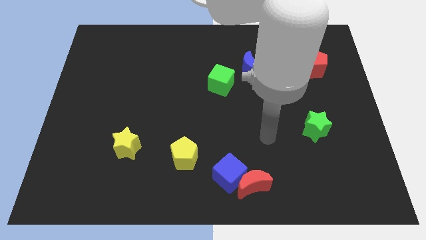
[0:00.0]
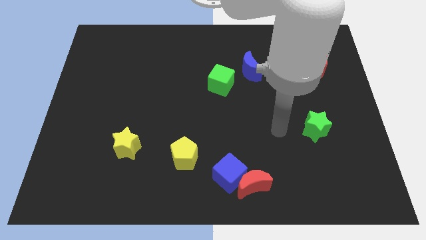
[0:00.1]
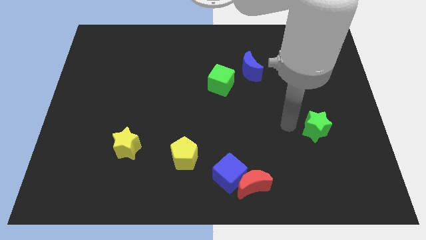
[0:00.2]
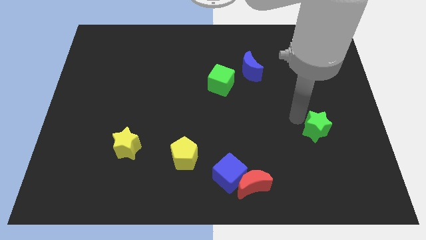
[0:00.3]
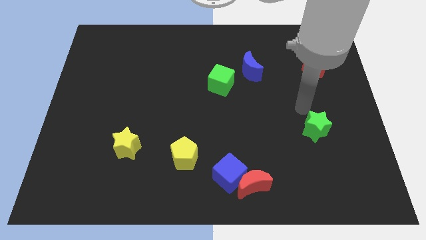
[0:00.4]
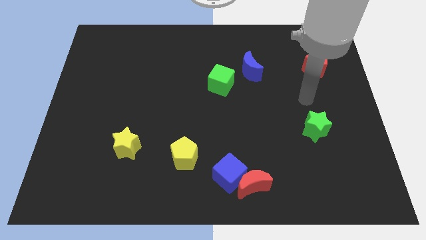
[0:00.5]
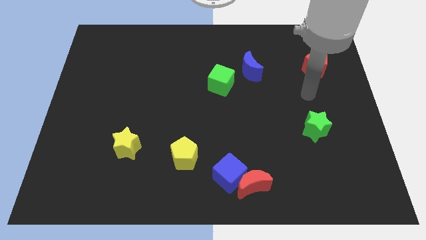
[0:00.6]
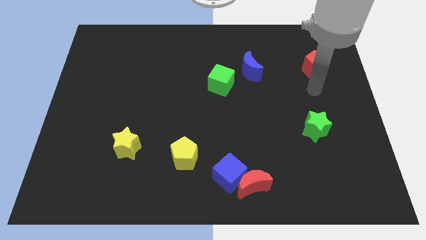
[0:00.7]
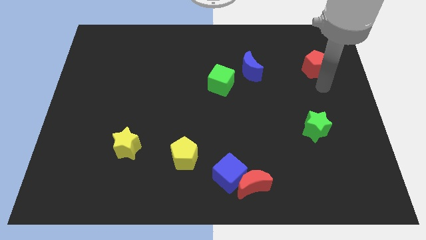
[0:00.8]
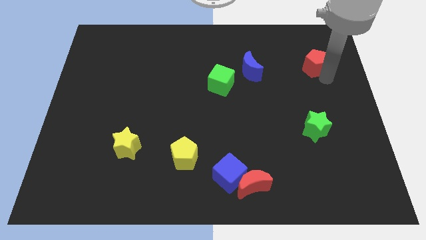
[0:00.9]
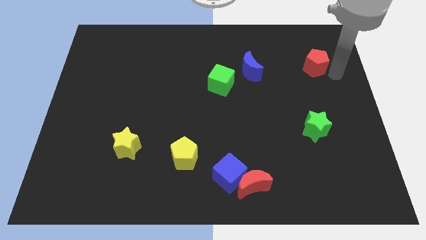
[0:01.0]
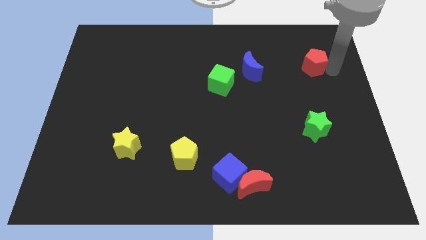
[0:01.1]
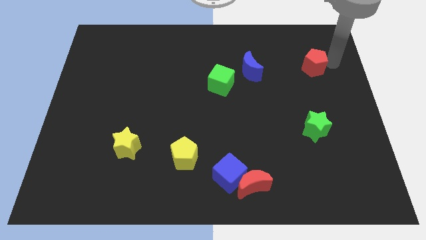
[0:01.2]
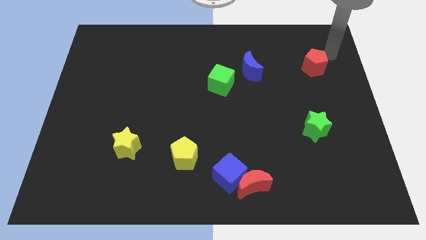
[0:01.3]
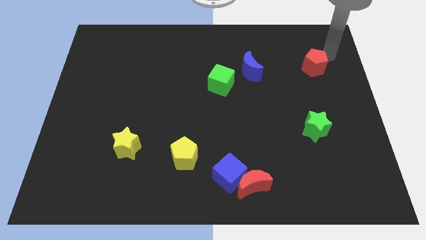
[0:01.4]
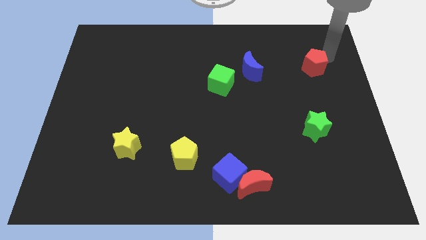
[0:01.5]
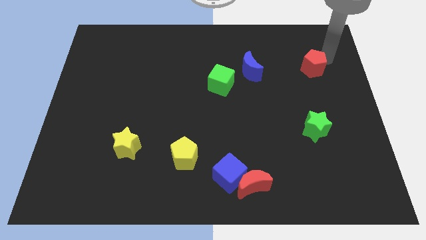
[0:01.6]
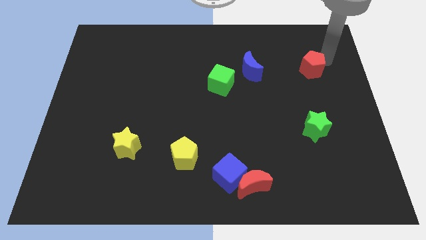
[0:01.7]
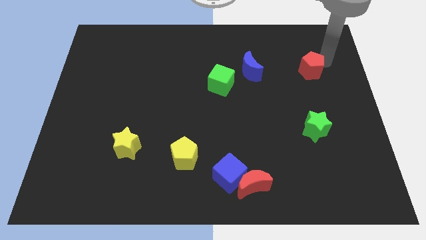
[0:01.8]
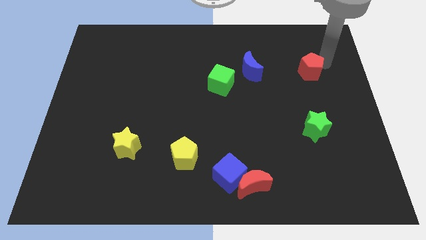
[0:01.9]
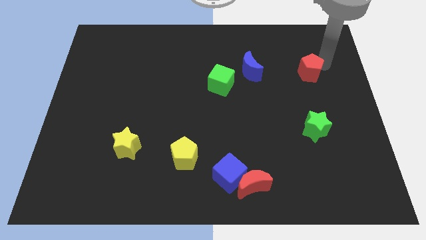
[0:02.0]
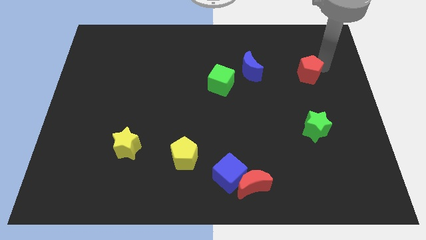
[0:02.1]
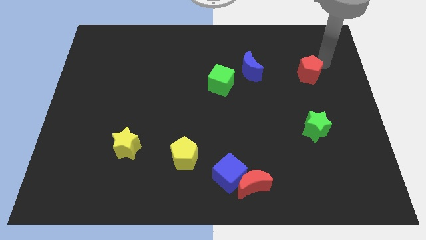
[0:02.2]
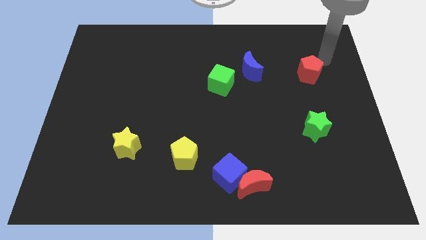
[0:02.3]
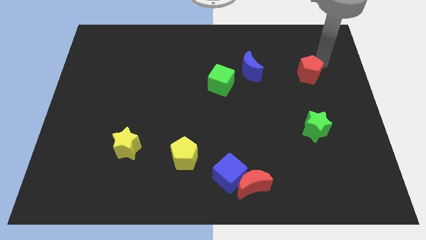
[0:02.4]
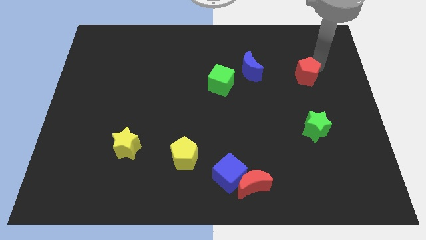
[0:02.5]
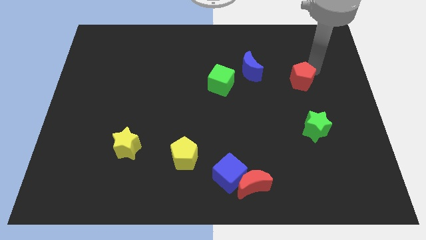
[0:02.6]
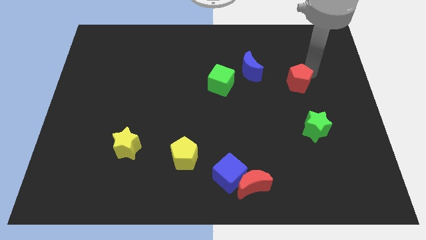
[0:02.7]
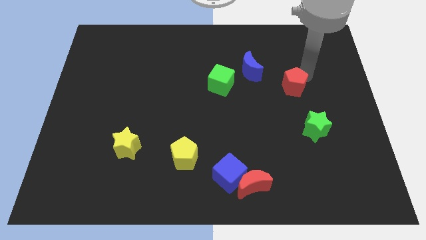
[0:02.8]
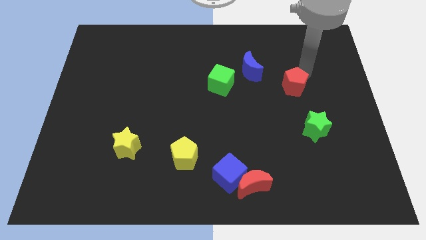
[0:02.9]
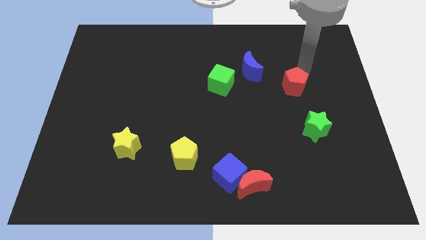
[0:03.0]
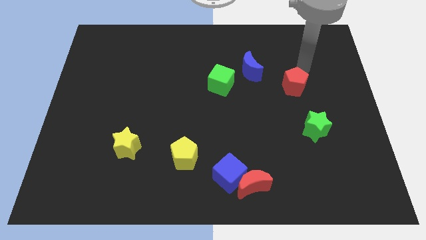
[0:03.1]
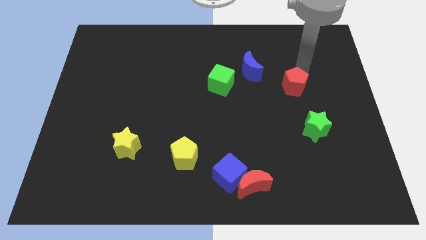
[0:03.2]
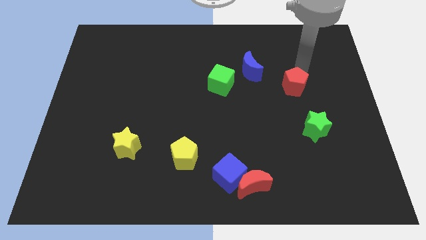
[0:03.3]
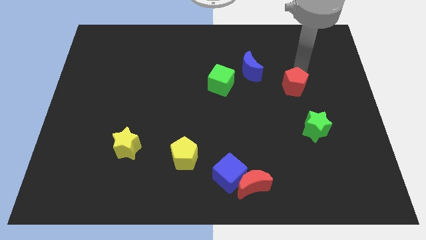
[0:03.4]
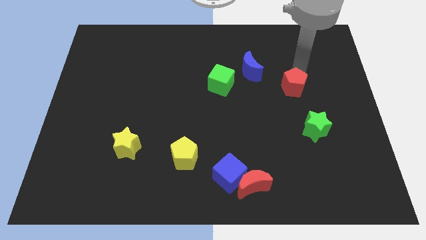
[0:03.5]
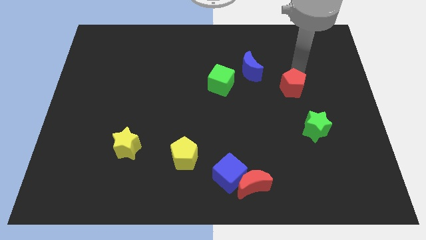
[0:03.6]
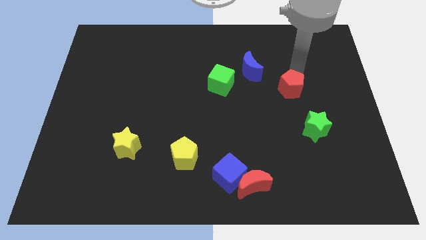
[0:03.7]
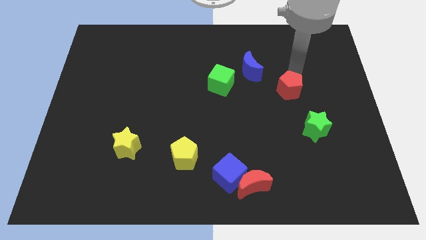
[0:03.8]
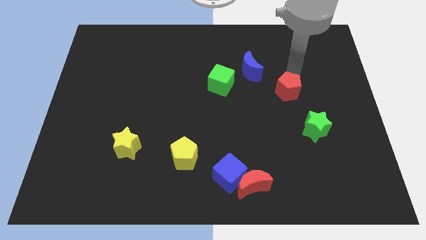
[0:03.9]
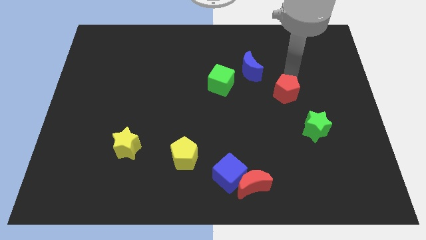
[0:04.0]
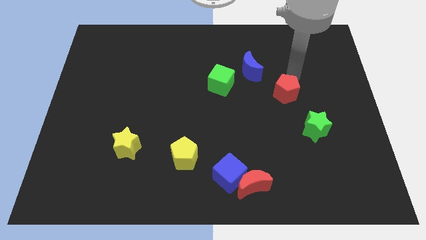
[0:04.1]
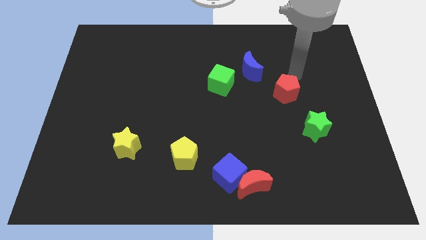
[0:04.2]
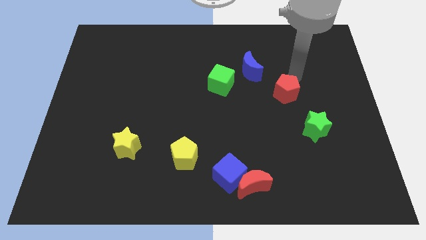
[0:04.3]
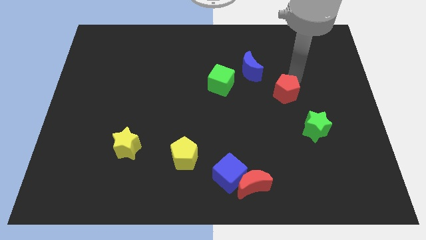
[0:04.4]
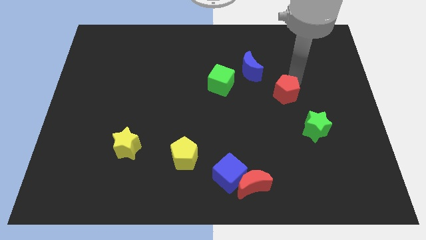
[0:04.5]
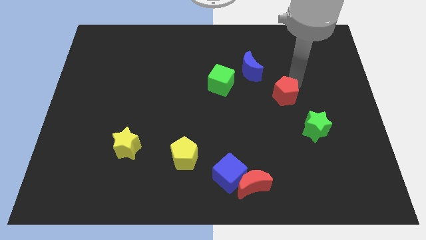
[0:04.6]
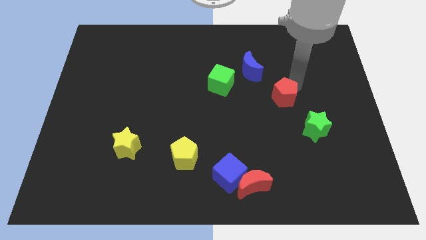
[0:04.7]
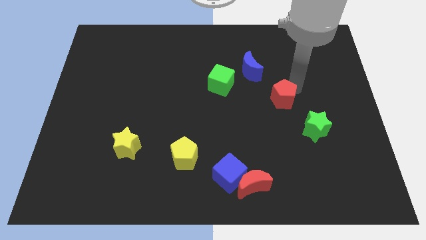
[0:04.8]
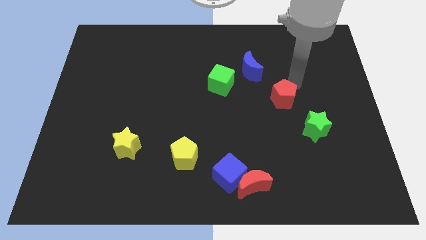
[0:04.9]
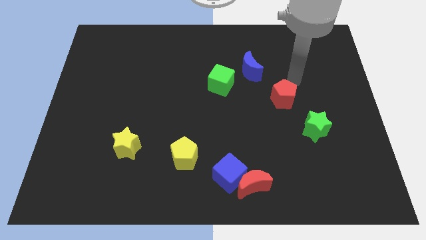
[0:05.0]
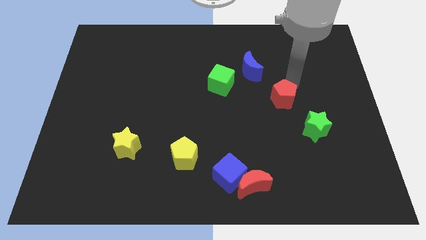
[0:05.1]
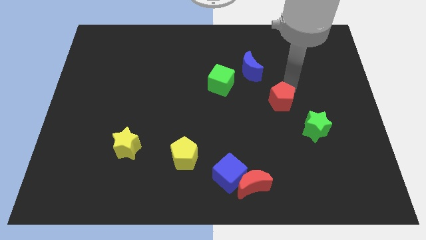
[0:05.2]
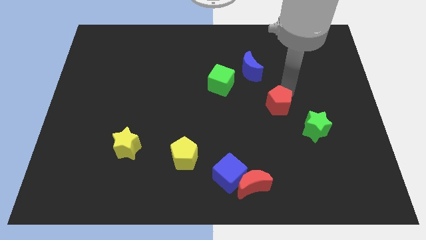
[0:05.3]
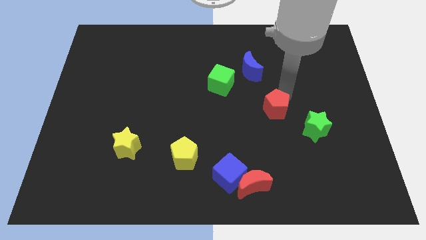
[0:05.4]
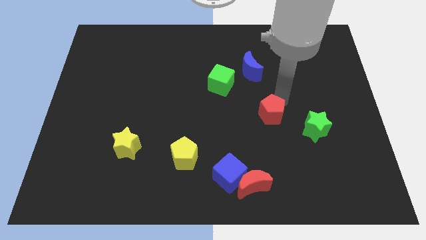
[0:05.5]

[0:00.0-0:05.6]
move the red pentagon to the left side of the green star

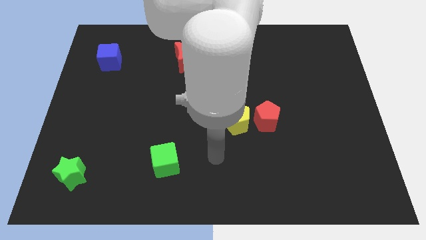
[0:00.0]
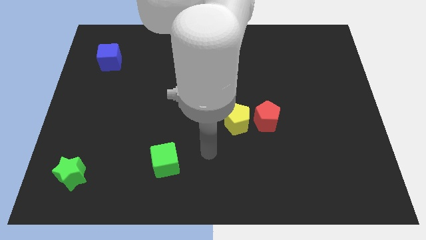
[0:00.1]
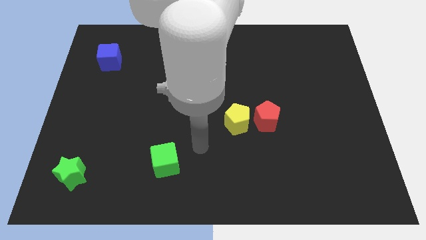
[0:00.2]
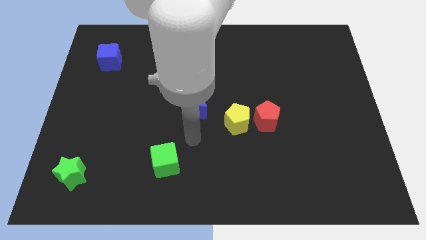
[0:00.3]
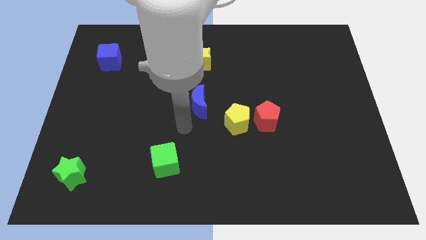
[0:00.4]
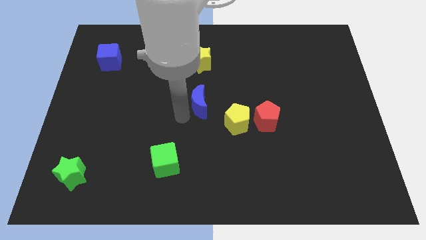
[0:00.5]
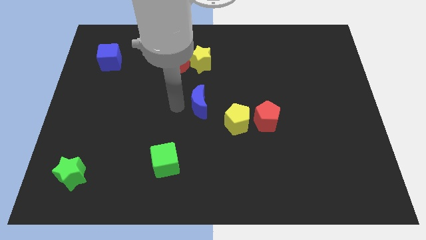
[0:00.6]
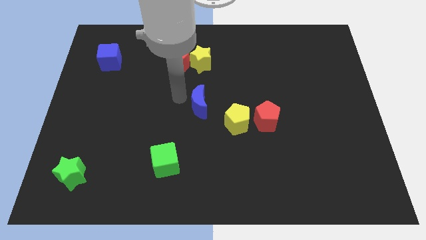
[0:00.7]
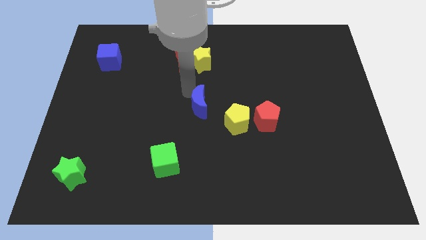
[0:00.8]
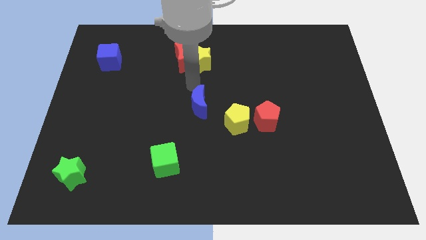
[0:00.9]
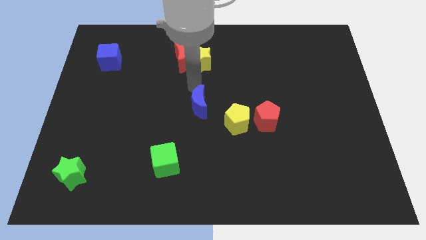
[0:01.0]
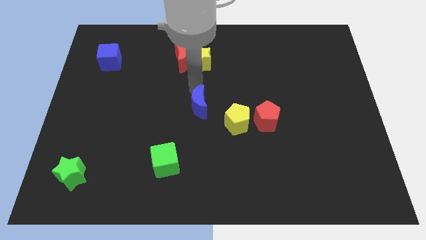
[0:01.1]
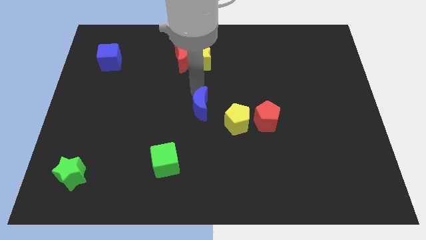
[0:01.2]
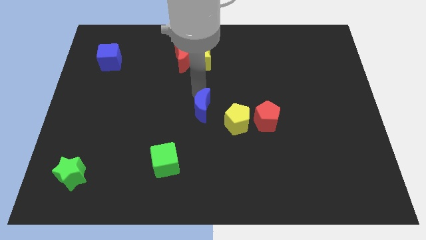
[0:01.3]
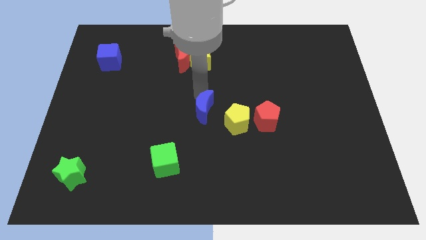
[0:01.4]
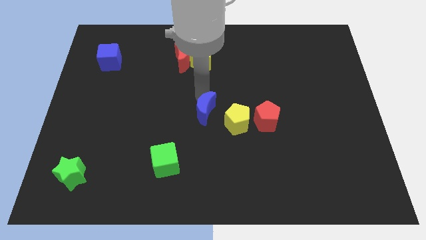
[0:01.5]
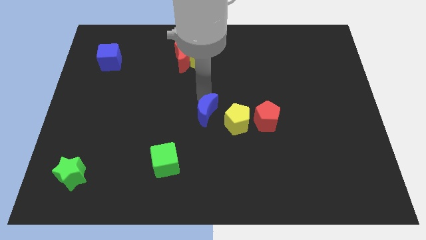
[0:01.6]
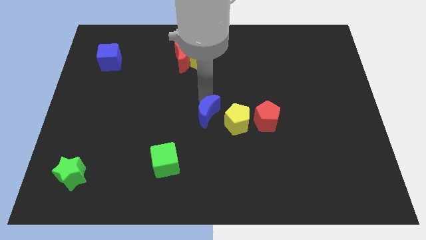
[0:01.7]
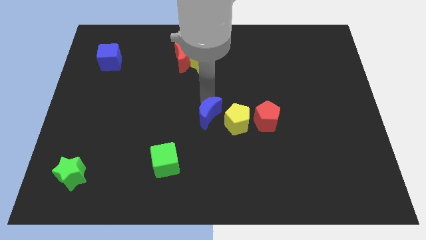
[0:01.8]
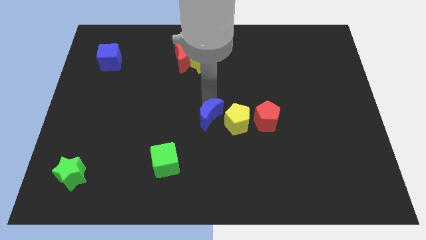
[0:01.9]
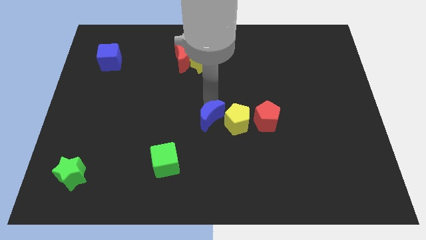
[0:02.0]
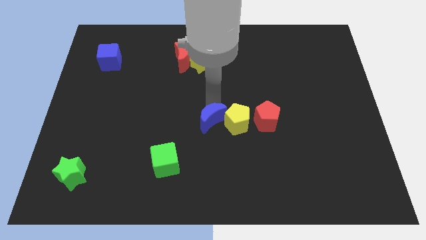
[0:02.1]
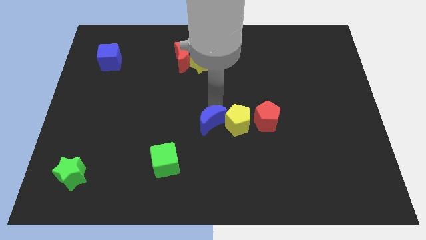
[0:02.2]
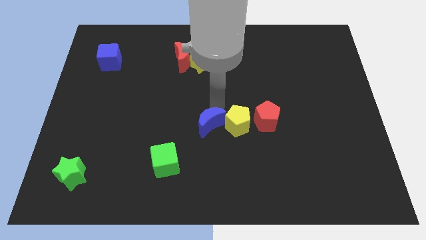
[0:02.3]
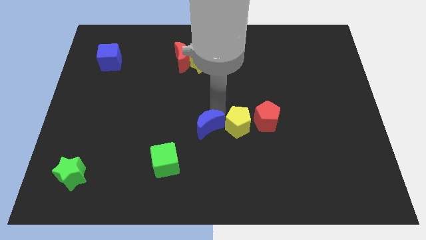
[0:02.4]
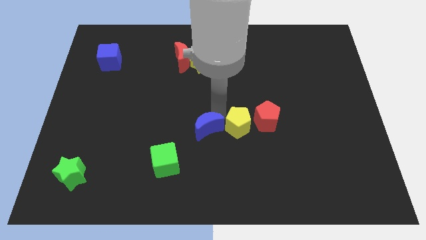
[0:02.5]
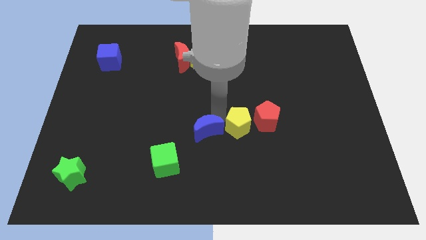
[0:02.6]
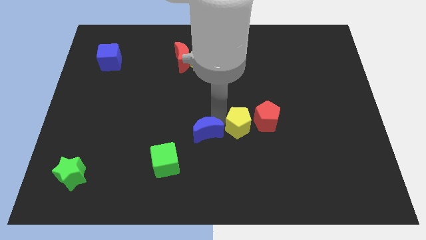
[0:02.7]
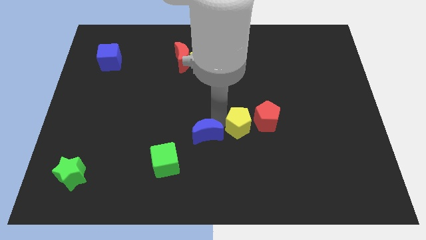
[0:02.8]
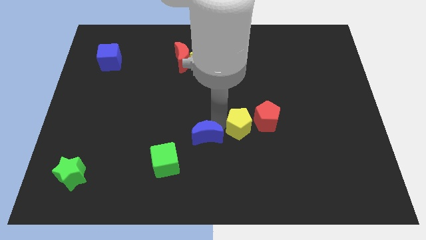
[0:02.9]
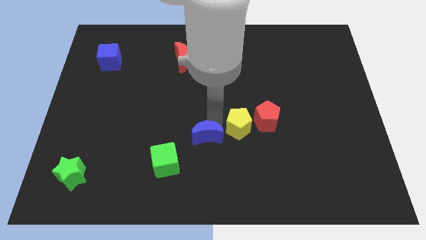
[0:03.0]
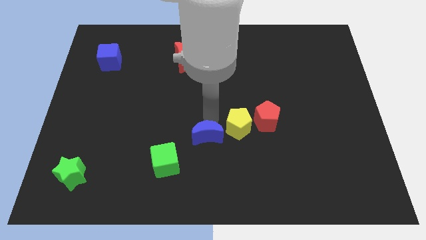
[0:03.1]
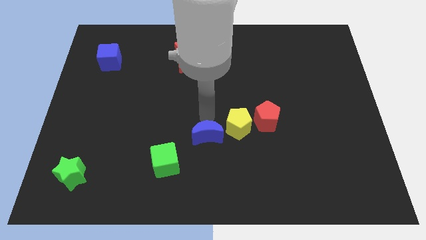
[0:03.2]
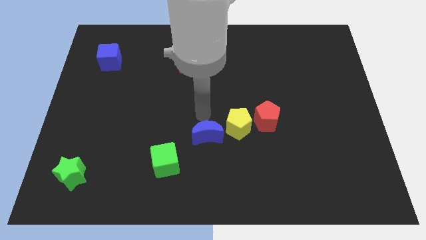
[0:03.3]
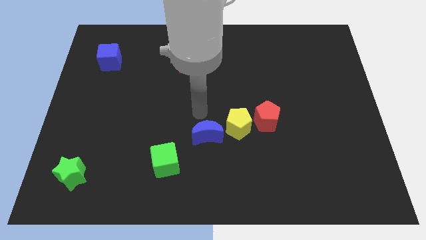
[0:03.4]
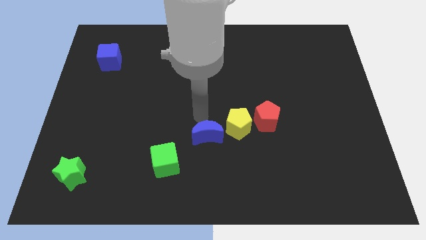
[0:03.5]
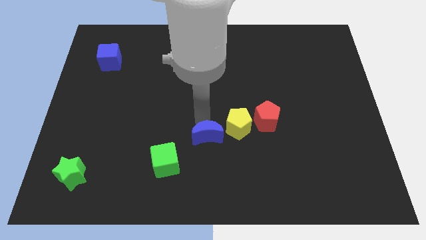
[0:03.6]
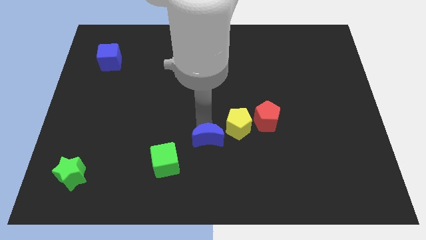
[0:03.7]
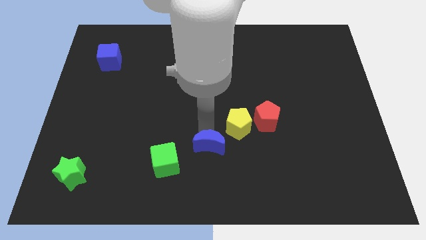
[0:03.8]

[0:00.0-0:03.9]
put the blue moon just right of the green cube
